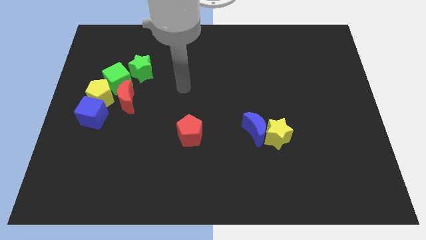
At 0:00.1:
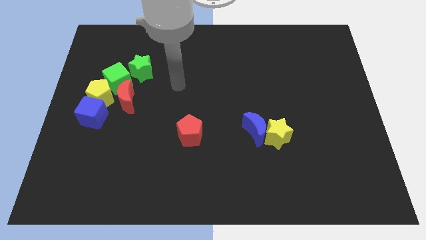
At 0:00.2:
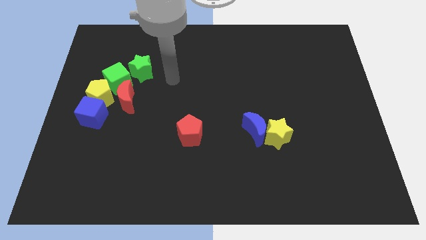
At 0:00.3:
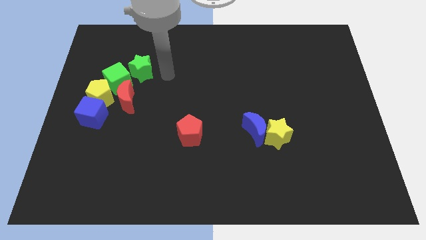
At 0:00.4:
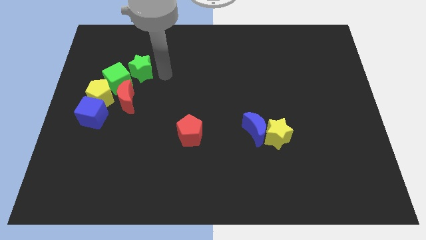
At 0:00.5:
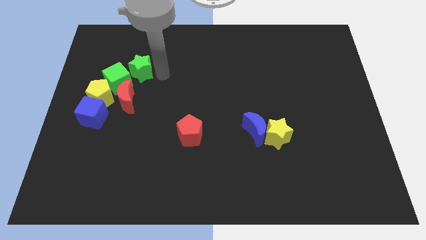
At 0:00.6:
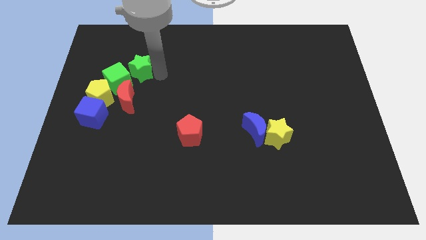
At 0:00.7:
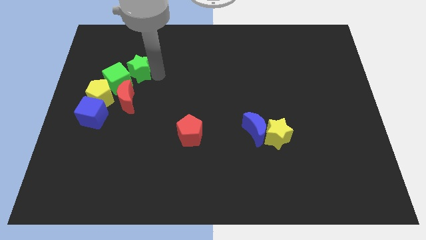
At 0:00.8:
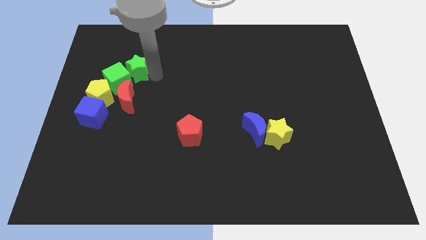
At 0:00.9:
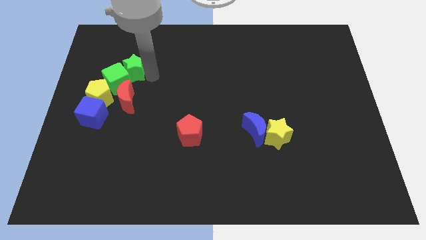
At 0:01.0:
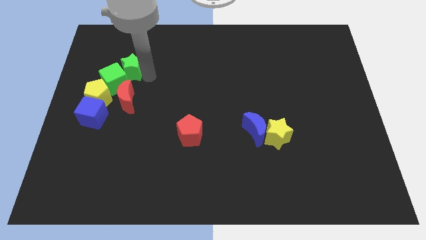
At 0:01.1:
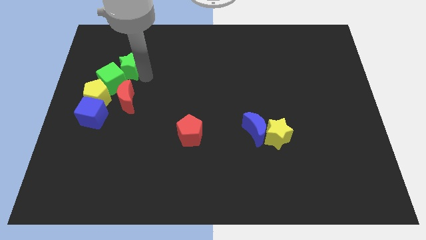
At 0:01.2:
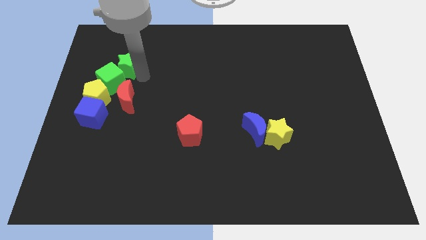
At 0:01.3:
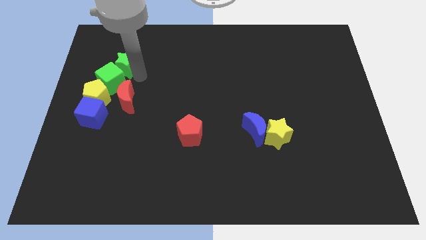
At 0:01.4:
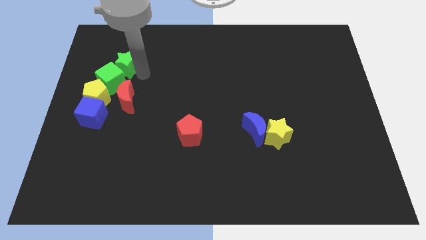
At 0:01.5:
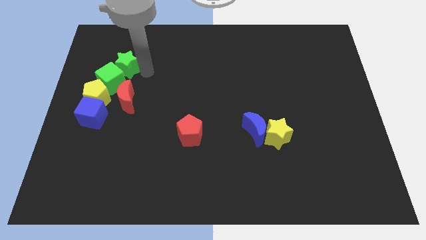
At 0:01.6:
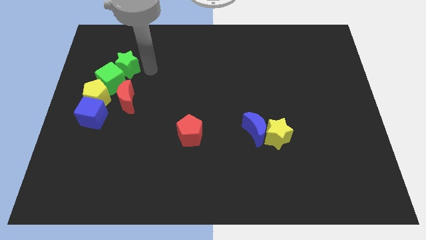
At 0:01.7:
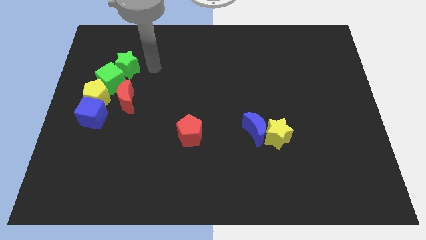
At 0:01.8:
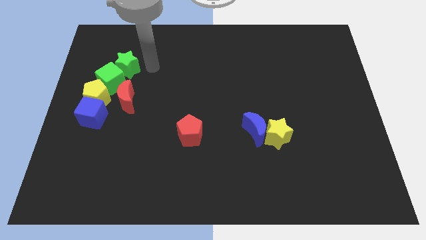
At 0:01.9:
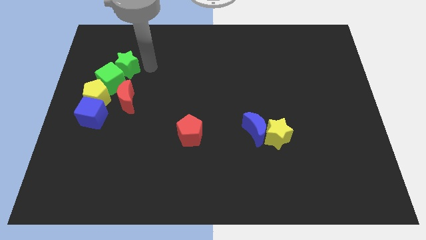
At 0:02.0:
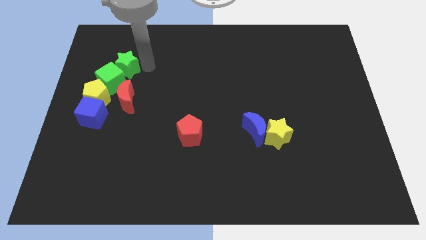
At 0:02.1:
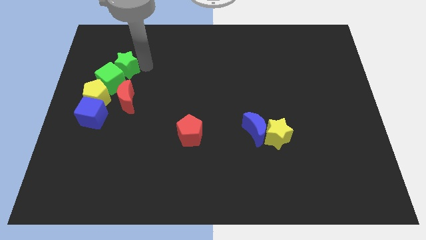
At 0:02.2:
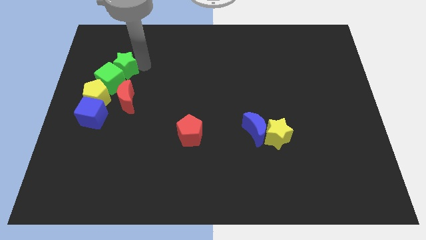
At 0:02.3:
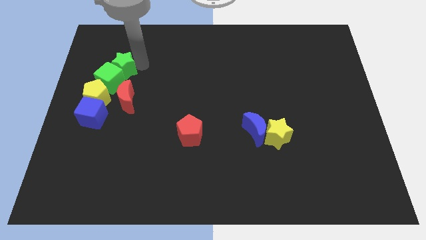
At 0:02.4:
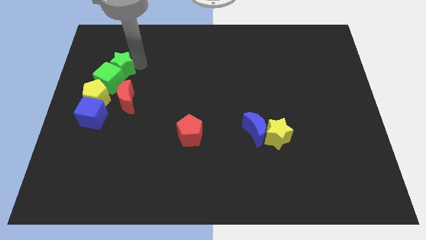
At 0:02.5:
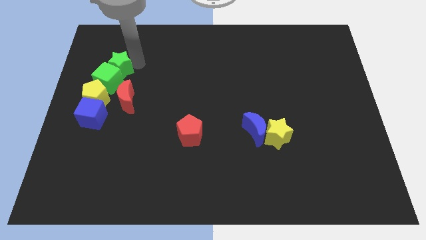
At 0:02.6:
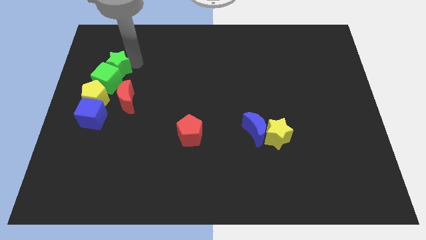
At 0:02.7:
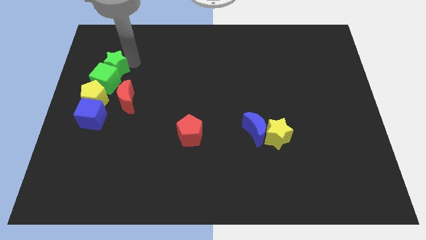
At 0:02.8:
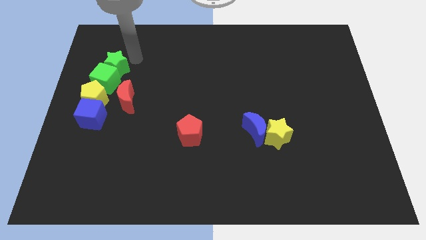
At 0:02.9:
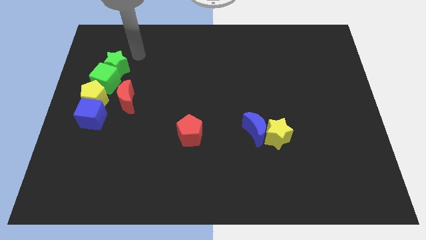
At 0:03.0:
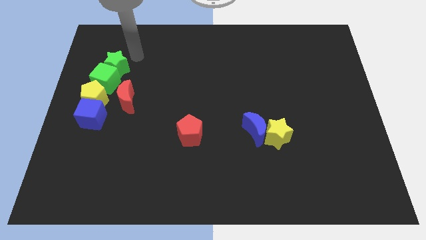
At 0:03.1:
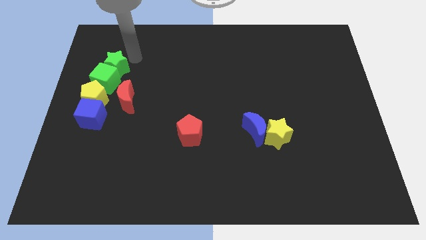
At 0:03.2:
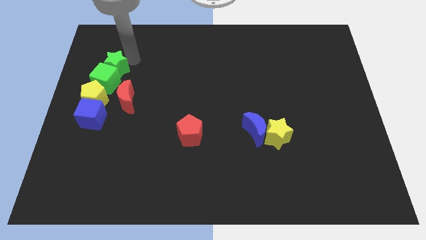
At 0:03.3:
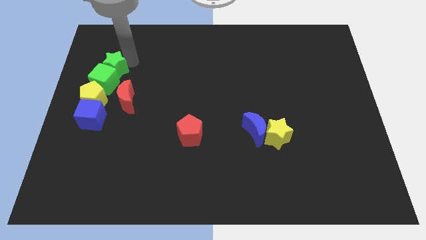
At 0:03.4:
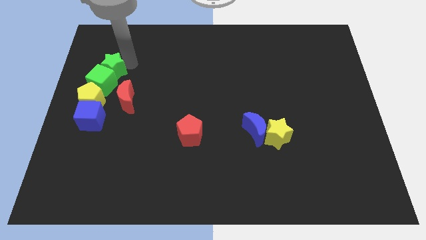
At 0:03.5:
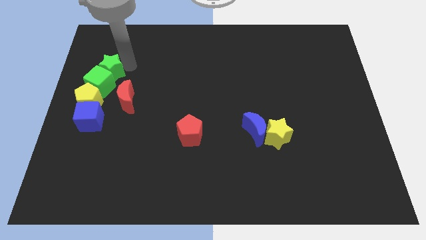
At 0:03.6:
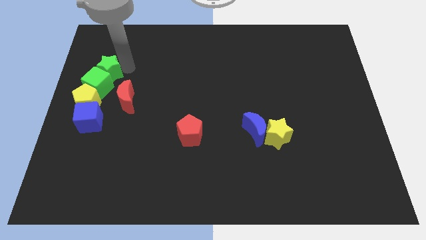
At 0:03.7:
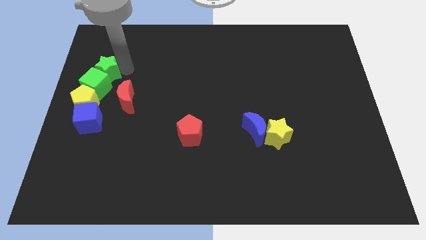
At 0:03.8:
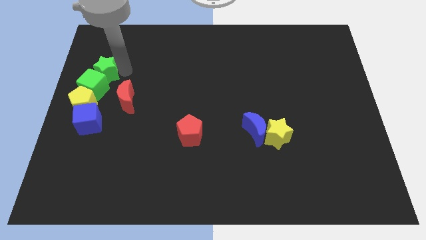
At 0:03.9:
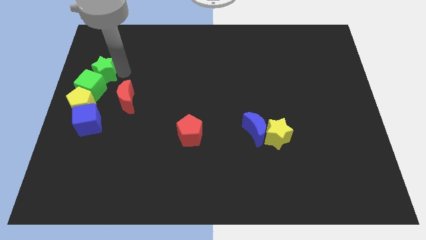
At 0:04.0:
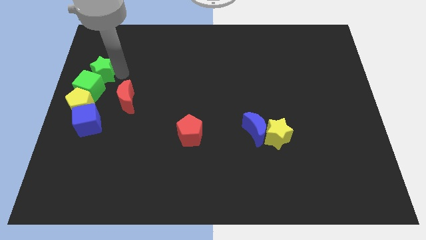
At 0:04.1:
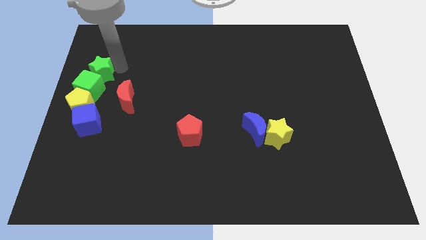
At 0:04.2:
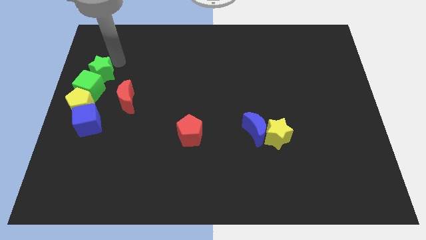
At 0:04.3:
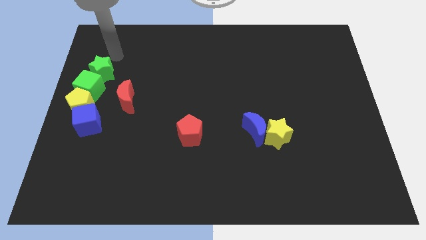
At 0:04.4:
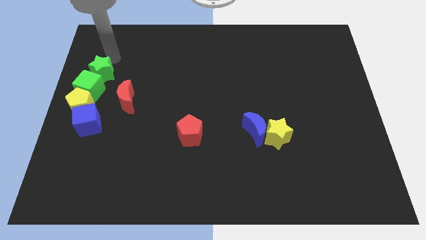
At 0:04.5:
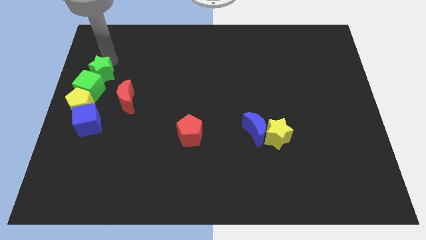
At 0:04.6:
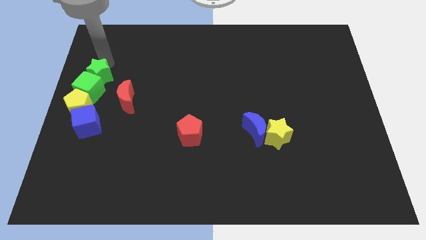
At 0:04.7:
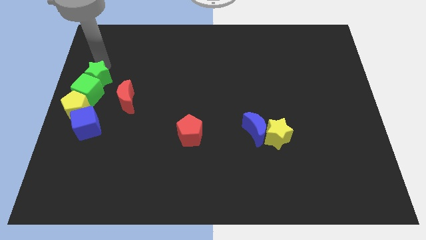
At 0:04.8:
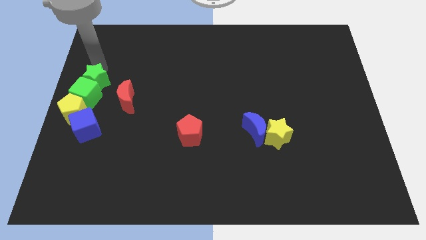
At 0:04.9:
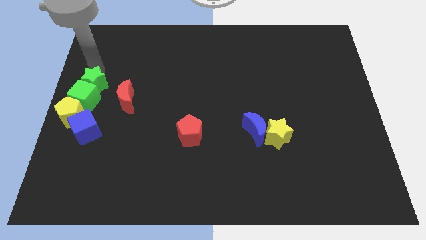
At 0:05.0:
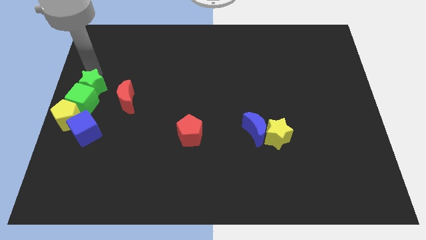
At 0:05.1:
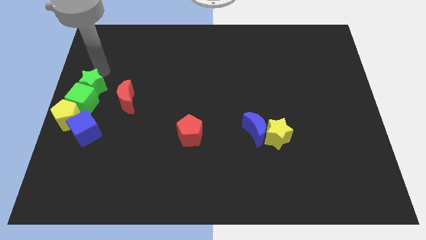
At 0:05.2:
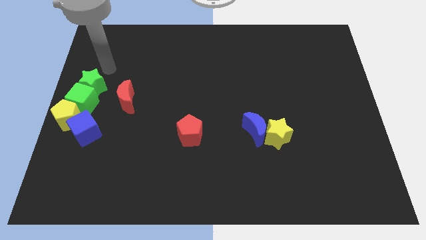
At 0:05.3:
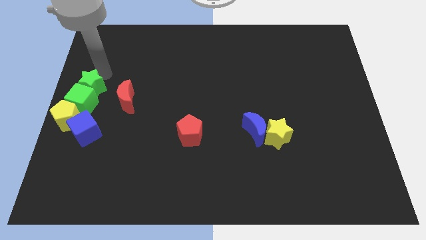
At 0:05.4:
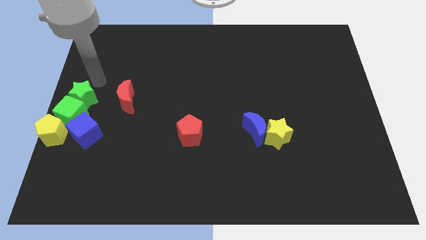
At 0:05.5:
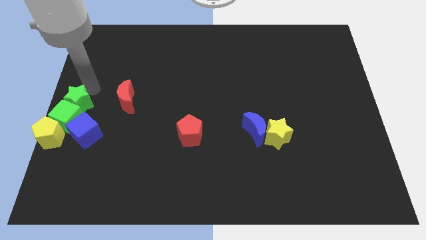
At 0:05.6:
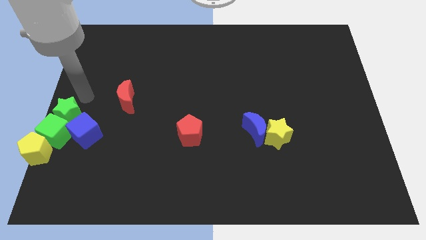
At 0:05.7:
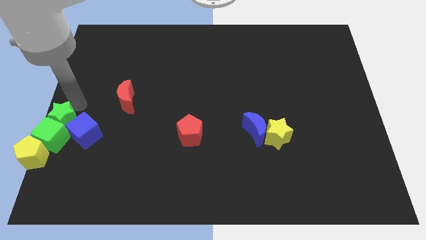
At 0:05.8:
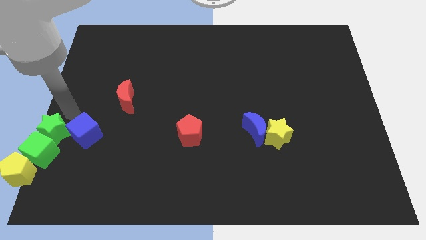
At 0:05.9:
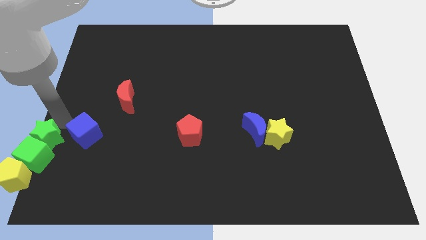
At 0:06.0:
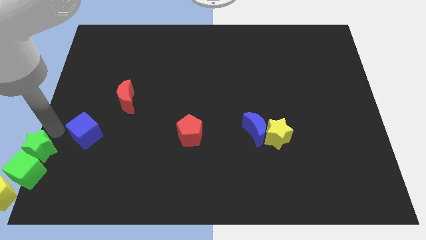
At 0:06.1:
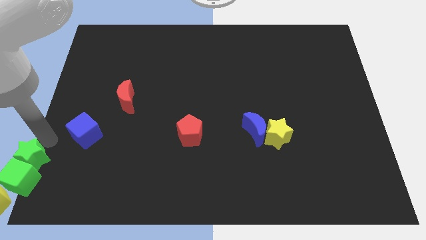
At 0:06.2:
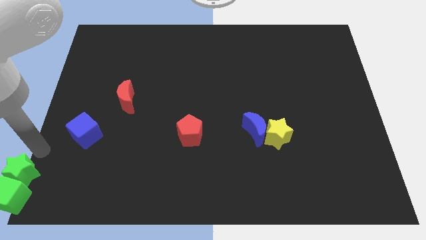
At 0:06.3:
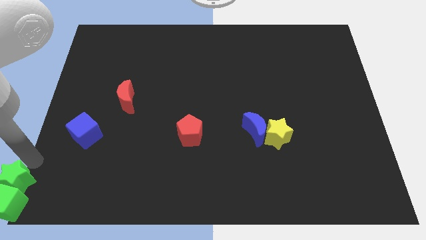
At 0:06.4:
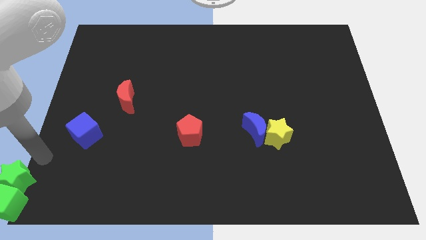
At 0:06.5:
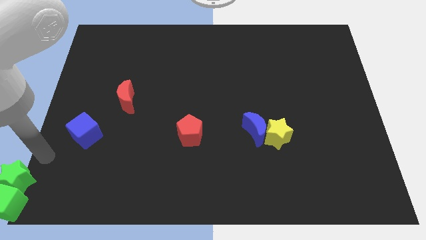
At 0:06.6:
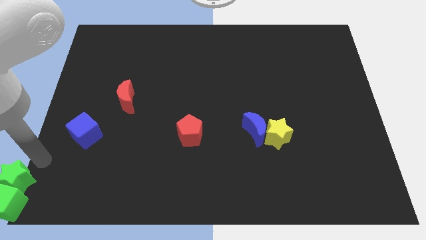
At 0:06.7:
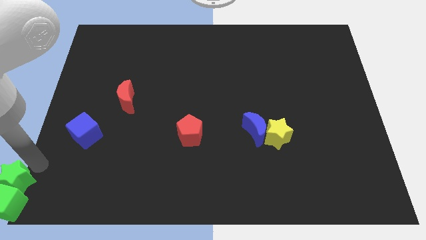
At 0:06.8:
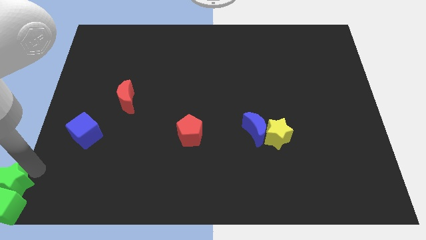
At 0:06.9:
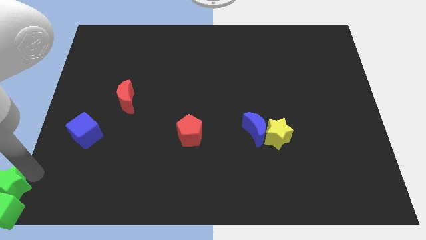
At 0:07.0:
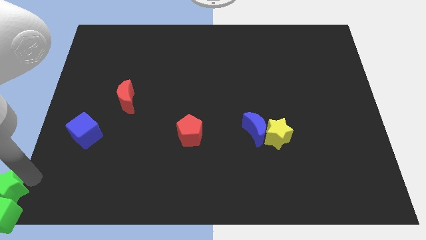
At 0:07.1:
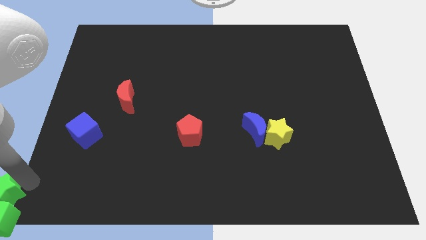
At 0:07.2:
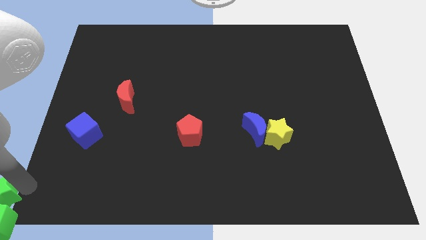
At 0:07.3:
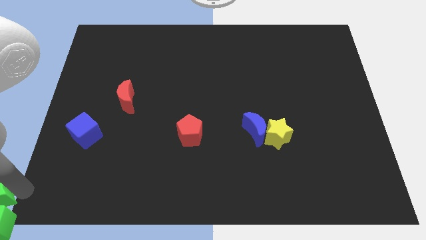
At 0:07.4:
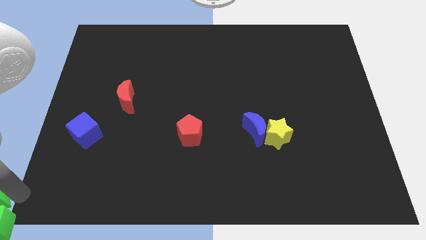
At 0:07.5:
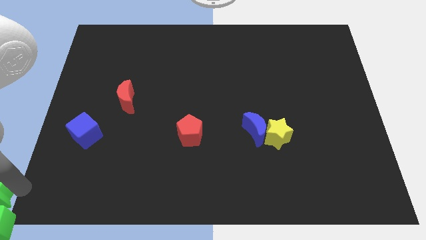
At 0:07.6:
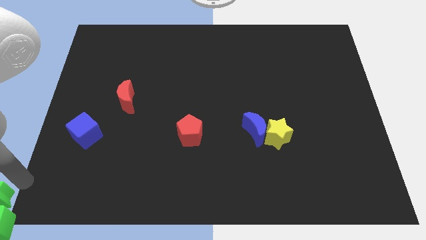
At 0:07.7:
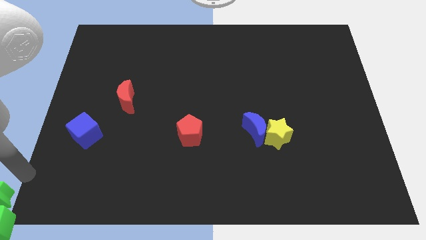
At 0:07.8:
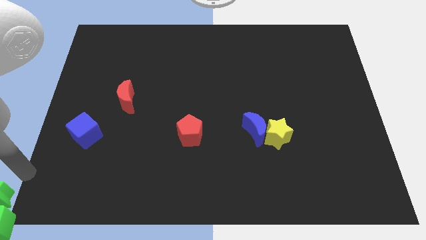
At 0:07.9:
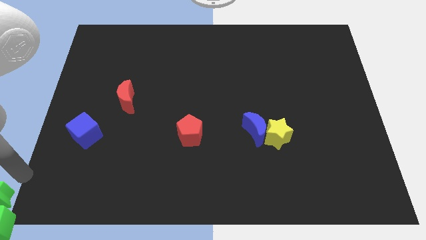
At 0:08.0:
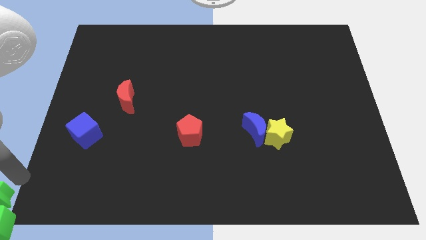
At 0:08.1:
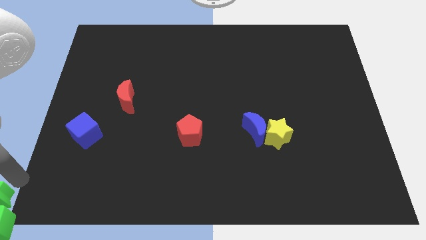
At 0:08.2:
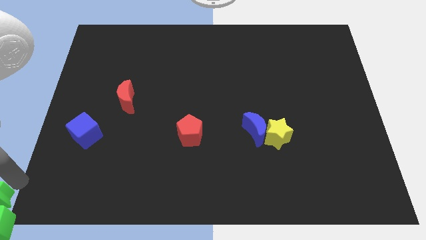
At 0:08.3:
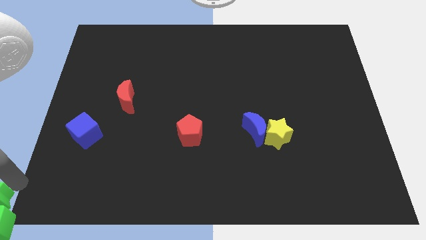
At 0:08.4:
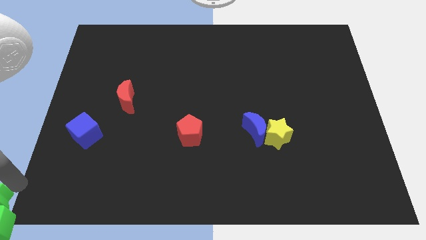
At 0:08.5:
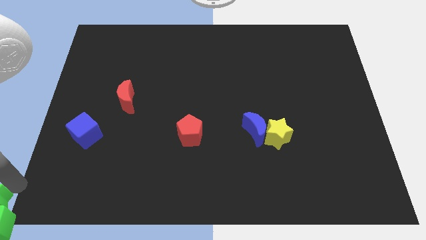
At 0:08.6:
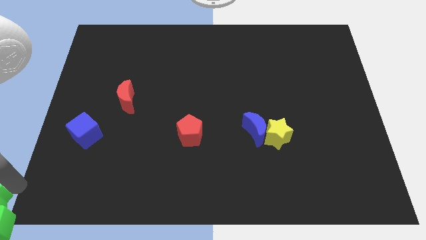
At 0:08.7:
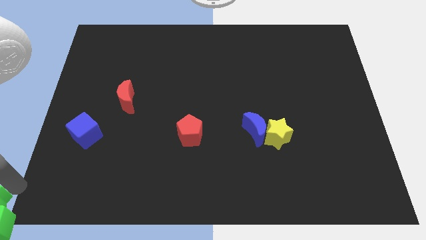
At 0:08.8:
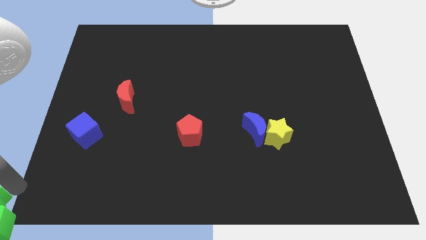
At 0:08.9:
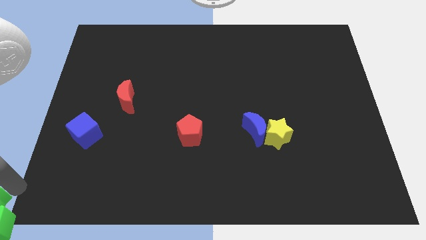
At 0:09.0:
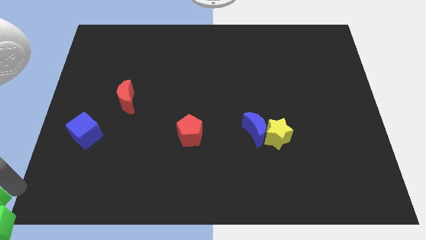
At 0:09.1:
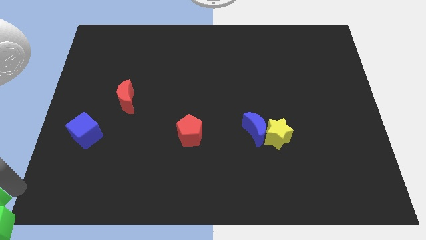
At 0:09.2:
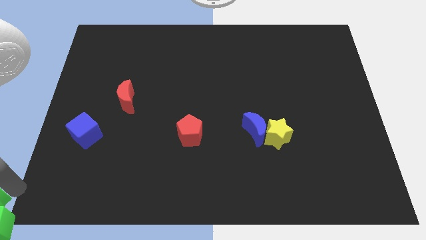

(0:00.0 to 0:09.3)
put the green star close to the yellow pentagon
